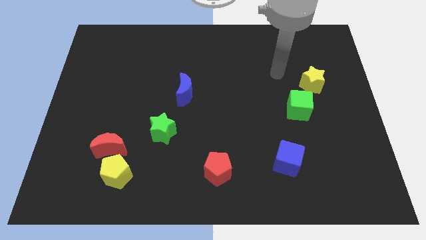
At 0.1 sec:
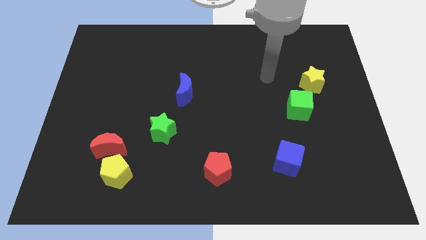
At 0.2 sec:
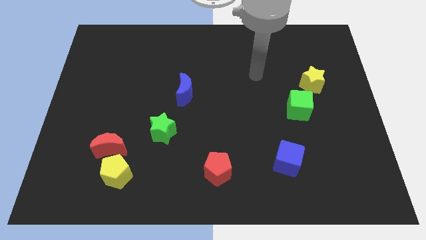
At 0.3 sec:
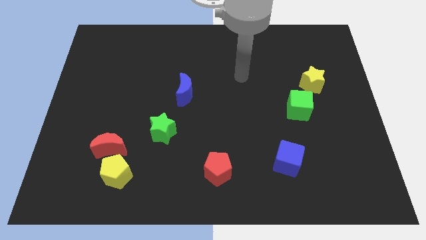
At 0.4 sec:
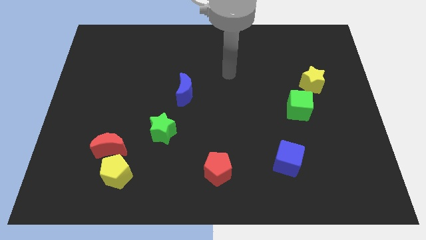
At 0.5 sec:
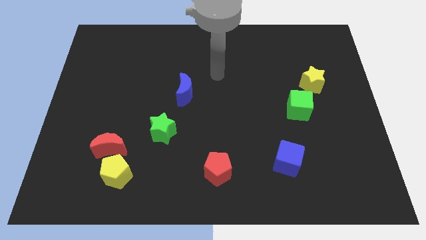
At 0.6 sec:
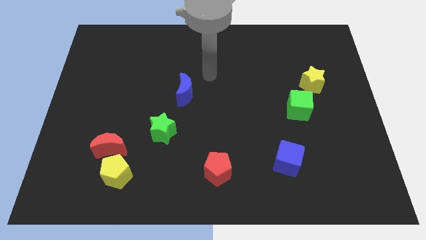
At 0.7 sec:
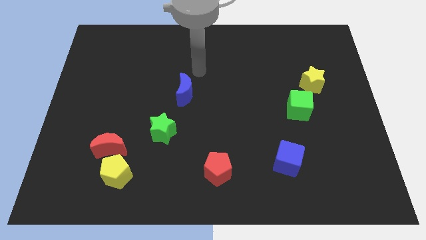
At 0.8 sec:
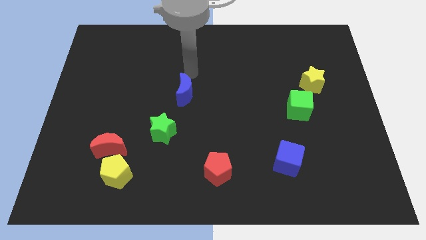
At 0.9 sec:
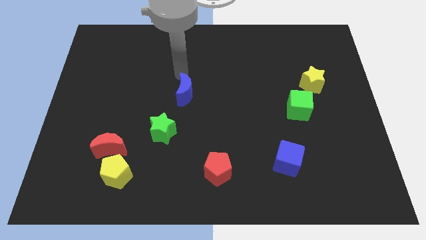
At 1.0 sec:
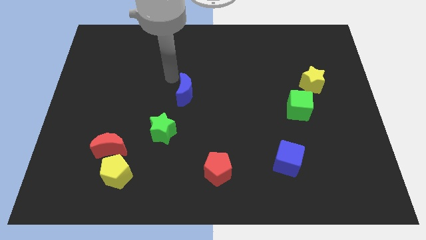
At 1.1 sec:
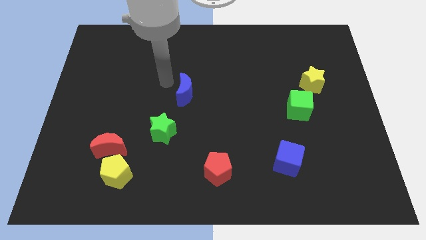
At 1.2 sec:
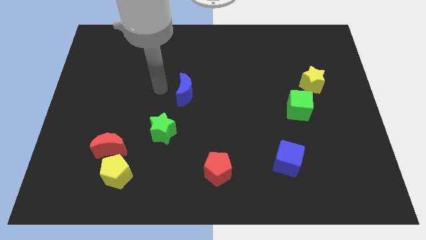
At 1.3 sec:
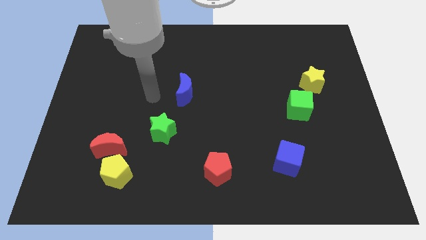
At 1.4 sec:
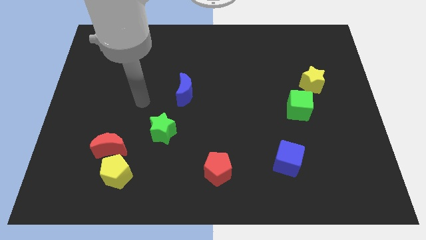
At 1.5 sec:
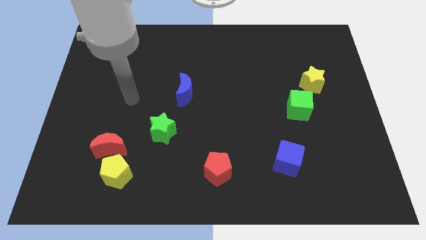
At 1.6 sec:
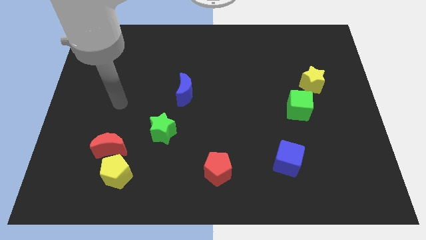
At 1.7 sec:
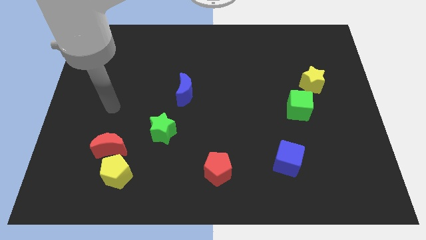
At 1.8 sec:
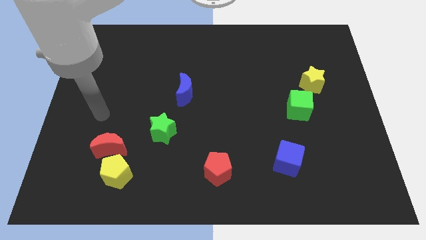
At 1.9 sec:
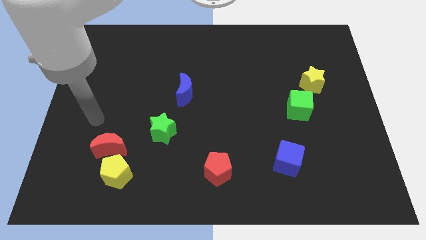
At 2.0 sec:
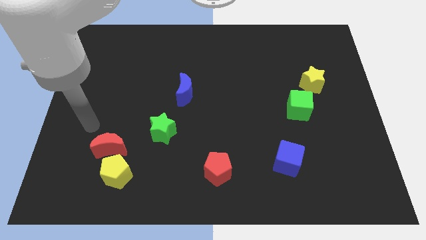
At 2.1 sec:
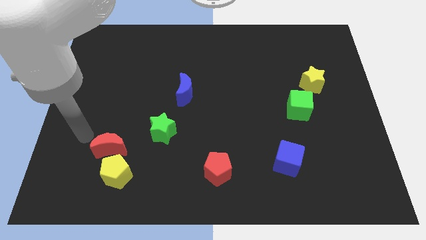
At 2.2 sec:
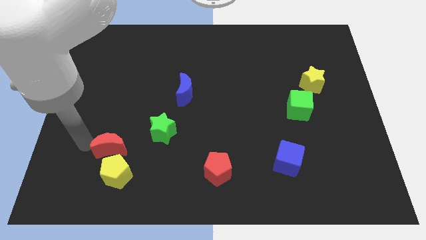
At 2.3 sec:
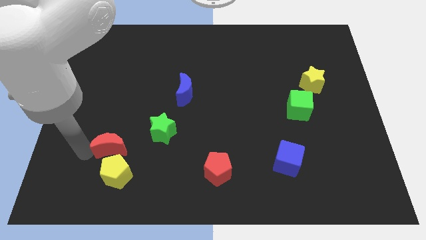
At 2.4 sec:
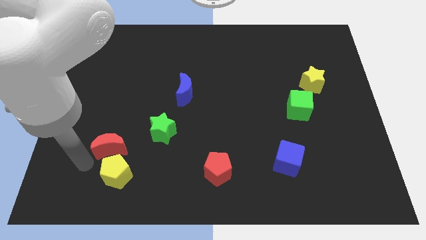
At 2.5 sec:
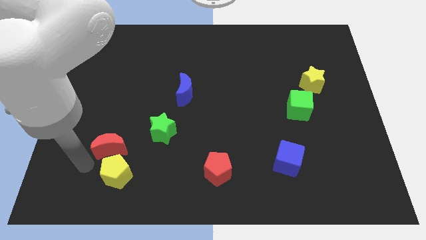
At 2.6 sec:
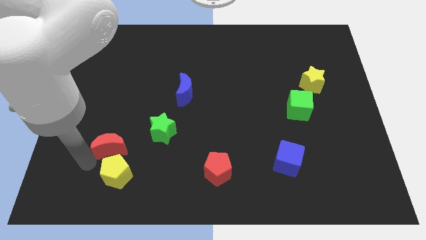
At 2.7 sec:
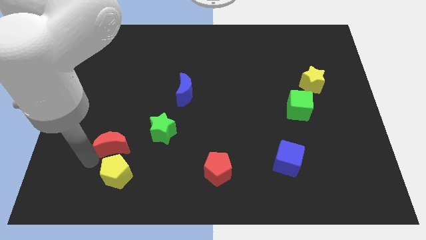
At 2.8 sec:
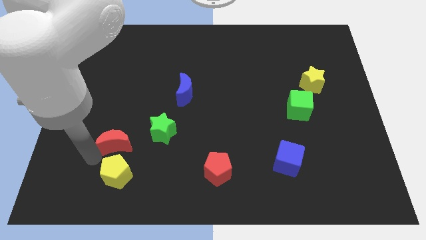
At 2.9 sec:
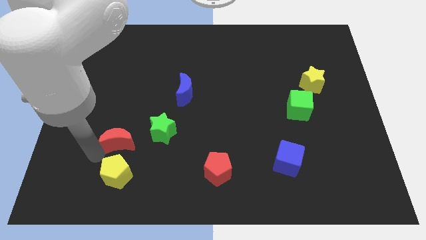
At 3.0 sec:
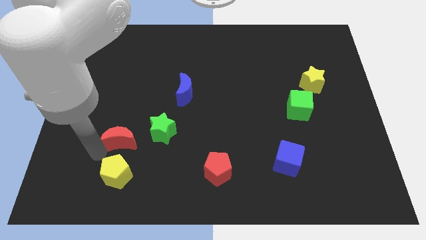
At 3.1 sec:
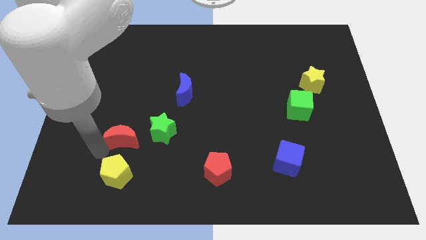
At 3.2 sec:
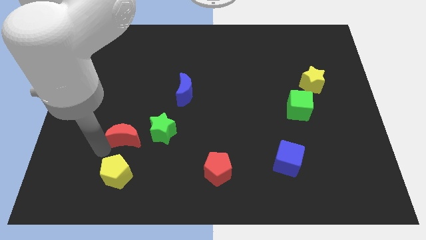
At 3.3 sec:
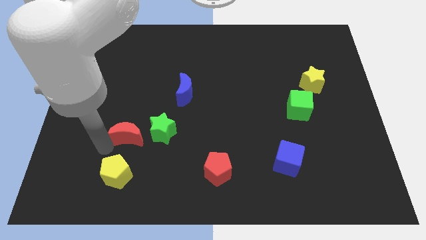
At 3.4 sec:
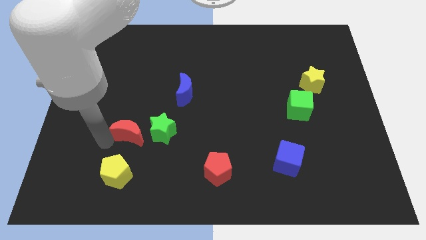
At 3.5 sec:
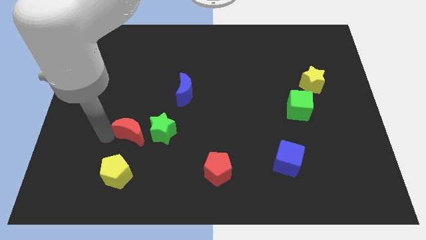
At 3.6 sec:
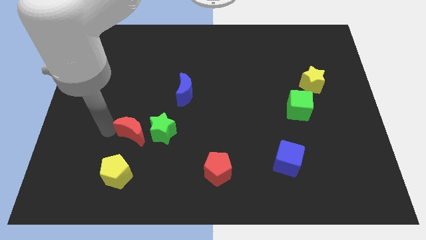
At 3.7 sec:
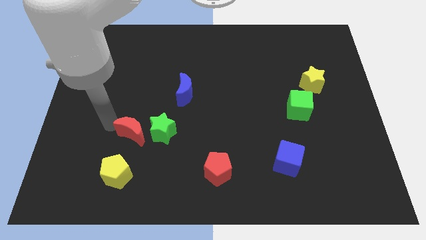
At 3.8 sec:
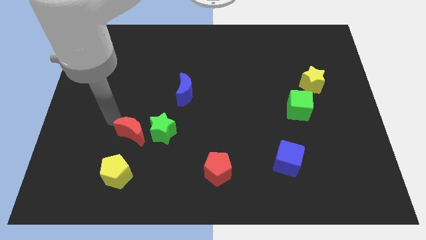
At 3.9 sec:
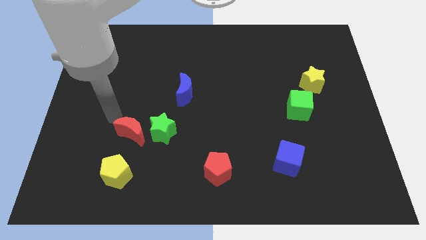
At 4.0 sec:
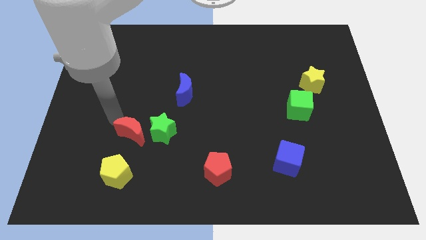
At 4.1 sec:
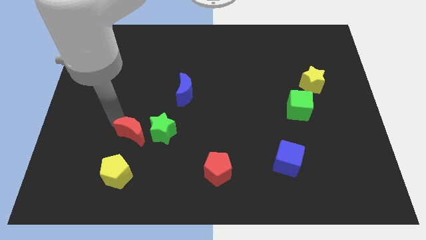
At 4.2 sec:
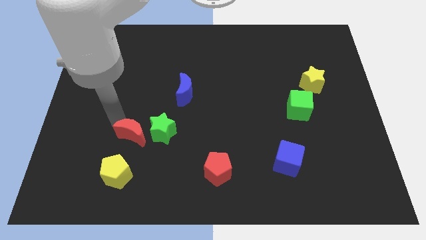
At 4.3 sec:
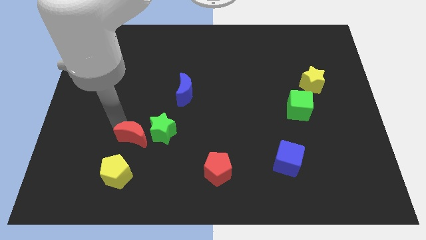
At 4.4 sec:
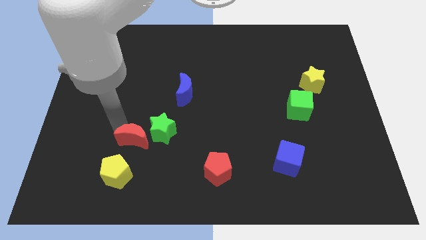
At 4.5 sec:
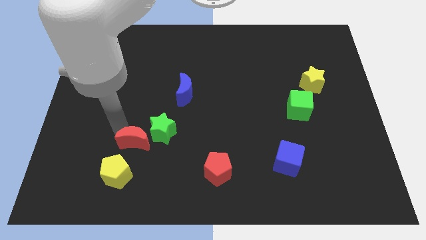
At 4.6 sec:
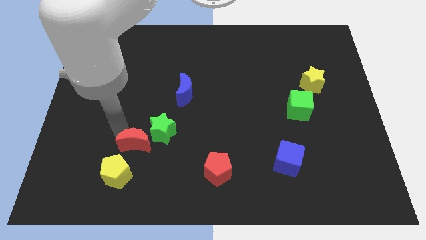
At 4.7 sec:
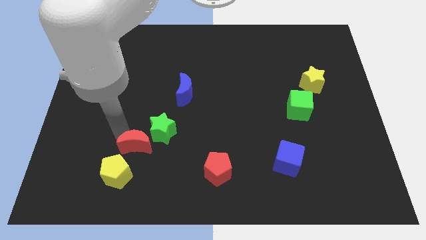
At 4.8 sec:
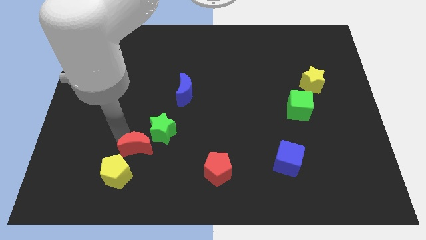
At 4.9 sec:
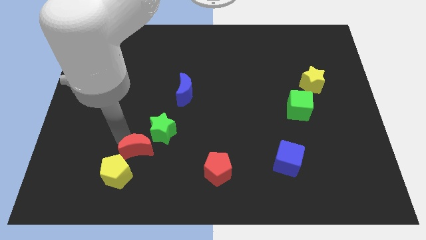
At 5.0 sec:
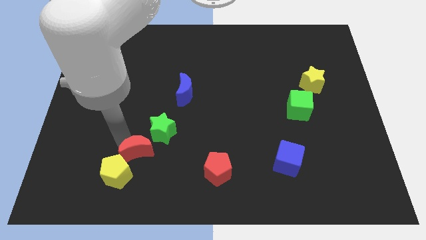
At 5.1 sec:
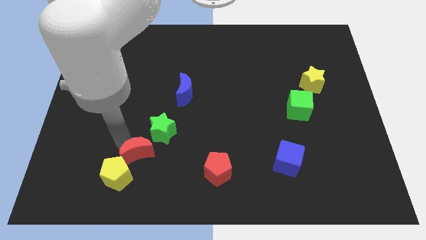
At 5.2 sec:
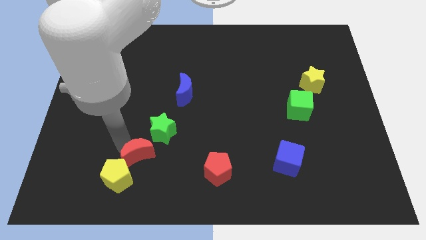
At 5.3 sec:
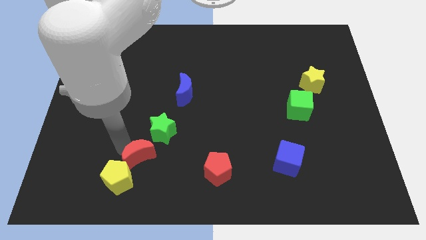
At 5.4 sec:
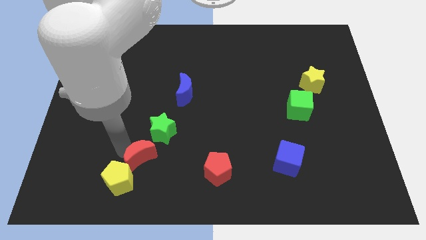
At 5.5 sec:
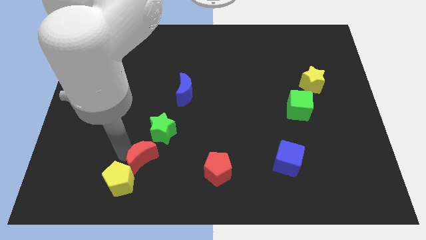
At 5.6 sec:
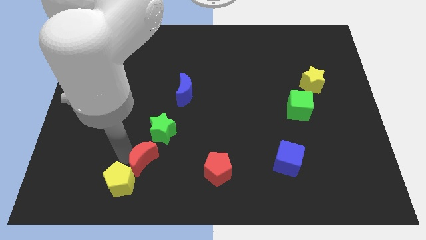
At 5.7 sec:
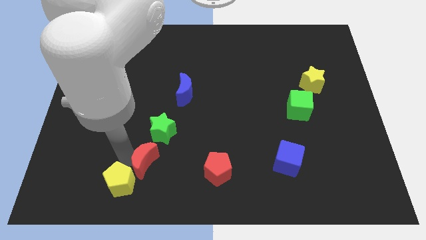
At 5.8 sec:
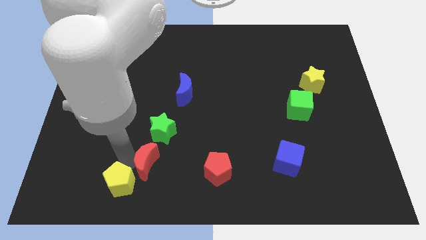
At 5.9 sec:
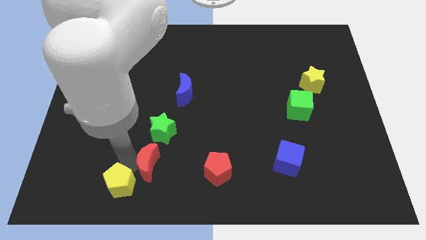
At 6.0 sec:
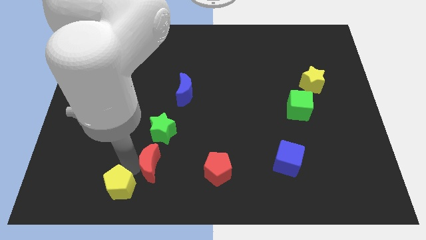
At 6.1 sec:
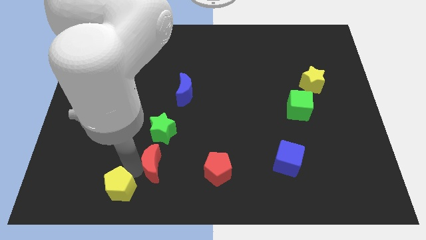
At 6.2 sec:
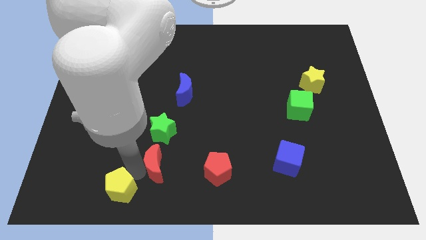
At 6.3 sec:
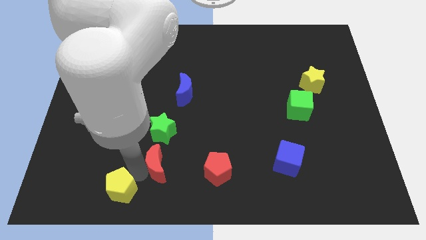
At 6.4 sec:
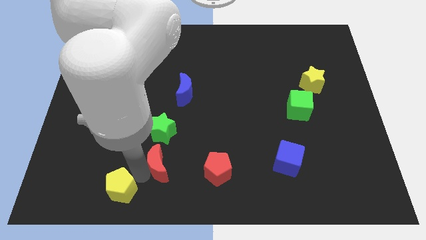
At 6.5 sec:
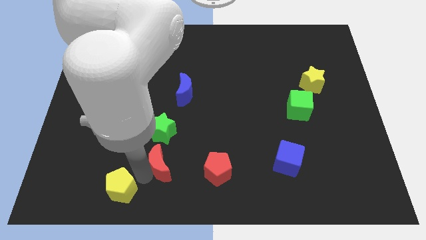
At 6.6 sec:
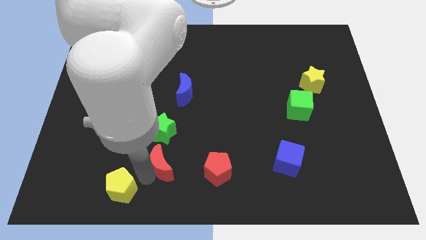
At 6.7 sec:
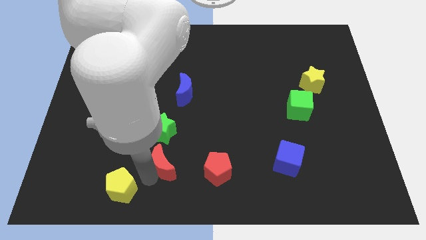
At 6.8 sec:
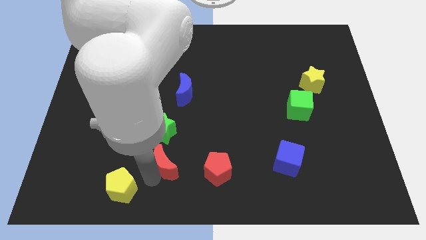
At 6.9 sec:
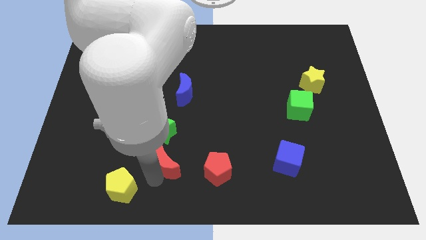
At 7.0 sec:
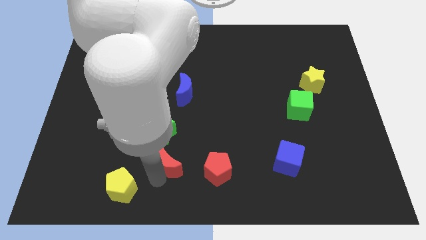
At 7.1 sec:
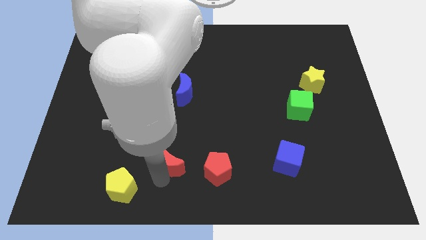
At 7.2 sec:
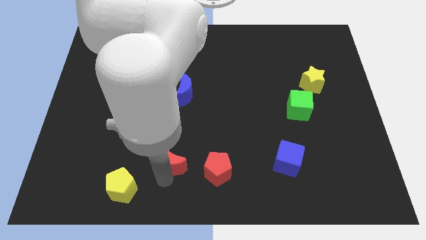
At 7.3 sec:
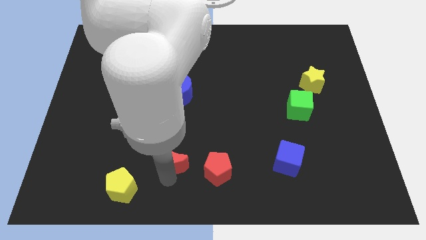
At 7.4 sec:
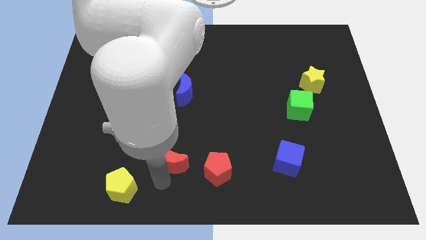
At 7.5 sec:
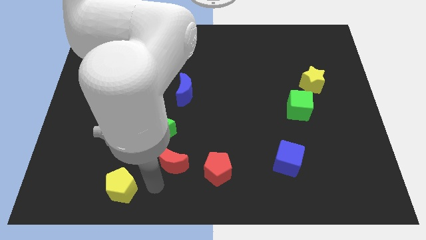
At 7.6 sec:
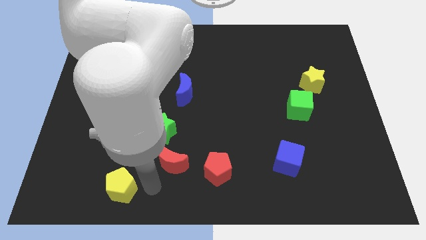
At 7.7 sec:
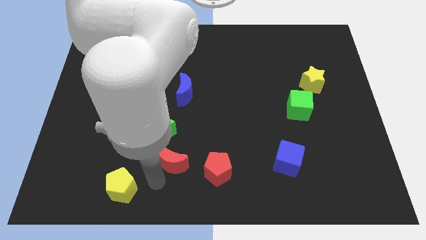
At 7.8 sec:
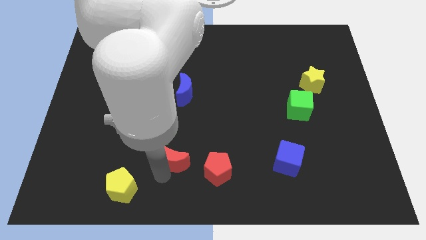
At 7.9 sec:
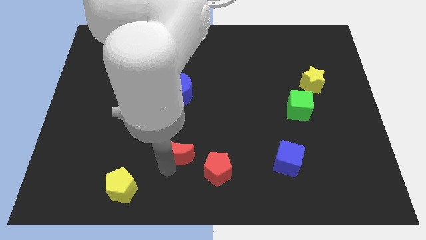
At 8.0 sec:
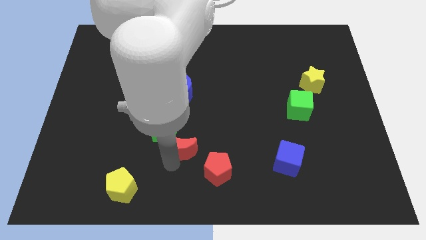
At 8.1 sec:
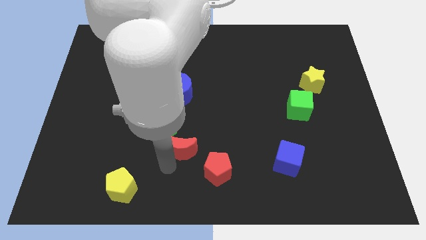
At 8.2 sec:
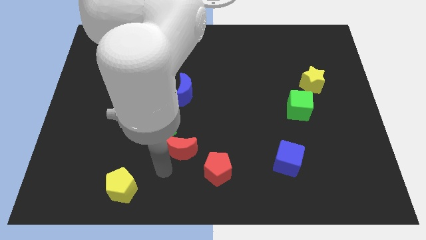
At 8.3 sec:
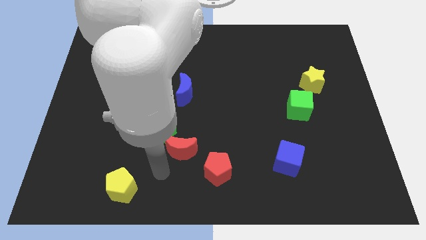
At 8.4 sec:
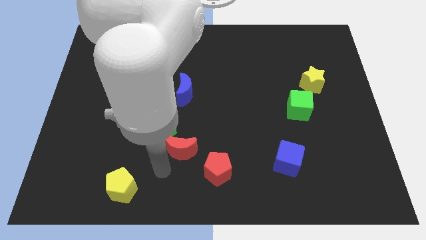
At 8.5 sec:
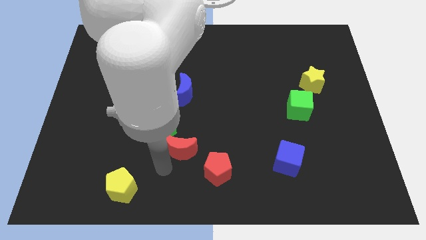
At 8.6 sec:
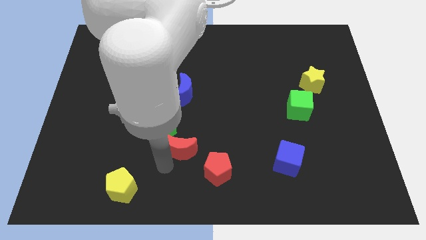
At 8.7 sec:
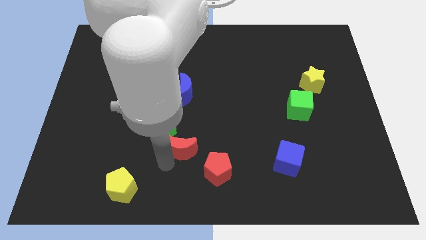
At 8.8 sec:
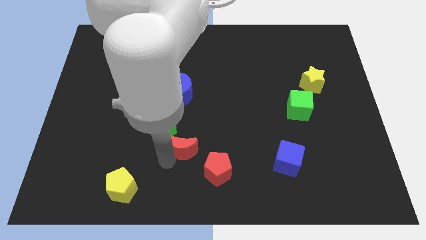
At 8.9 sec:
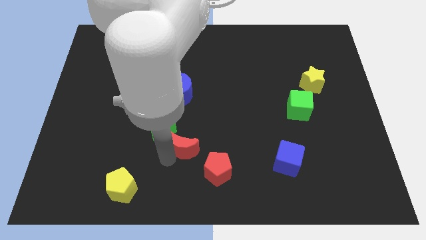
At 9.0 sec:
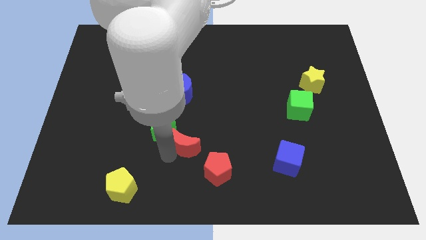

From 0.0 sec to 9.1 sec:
move the red moon just right of the green star
